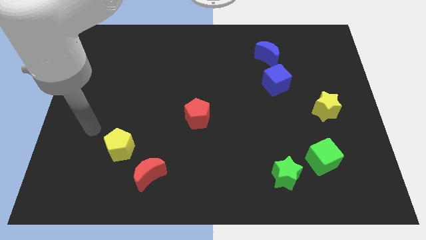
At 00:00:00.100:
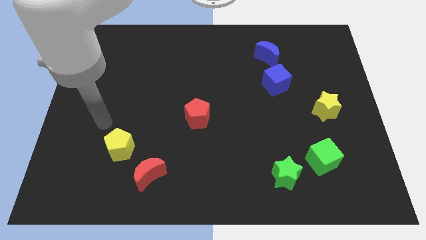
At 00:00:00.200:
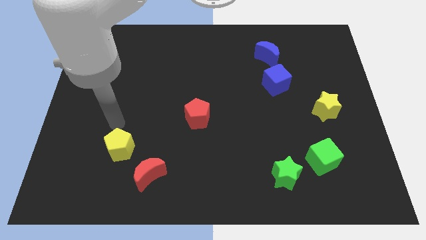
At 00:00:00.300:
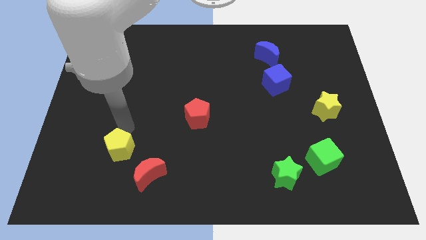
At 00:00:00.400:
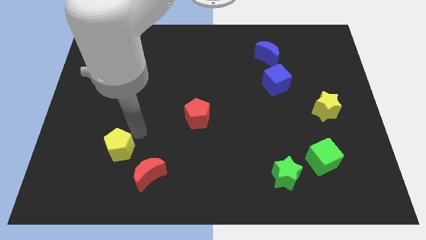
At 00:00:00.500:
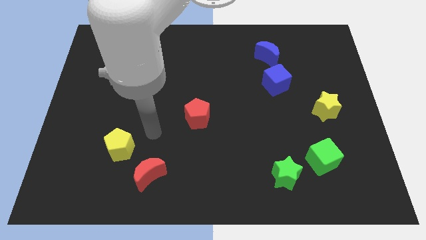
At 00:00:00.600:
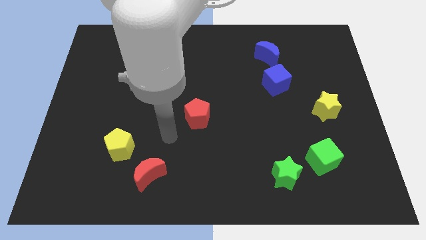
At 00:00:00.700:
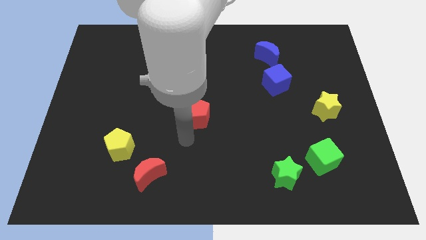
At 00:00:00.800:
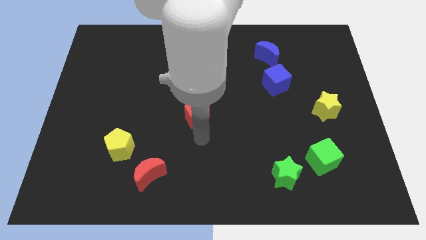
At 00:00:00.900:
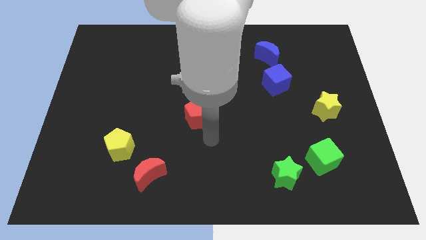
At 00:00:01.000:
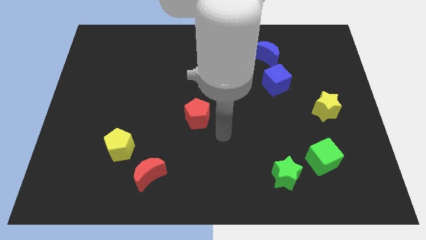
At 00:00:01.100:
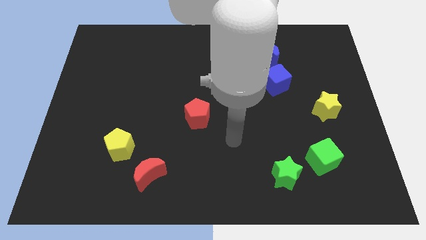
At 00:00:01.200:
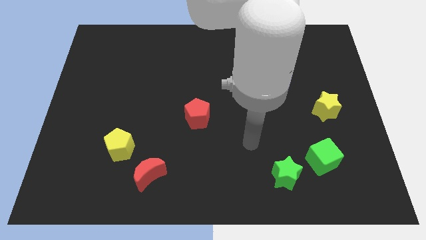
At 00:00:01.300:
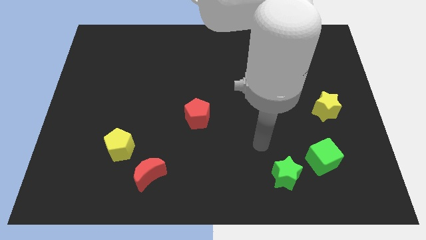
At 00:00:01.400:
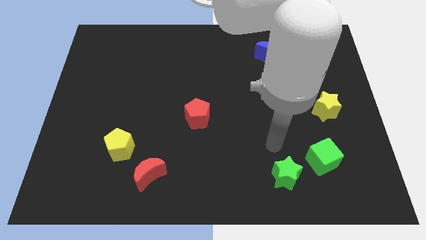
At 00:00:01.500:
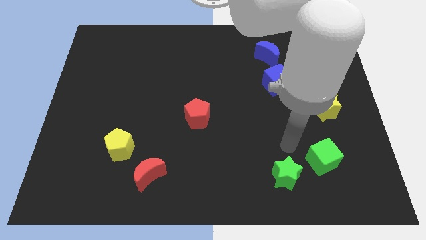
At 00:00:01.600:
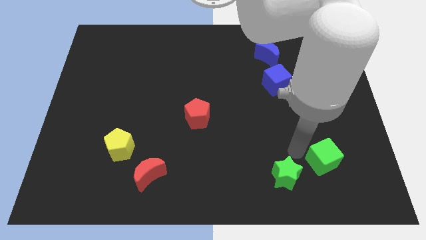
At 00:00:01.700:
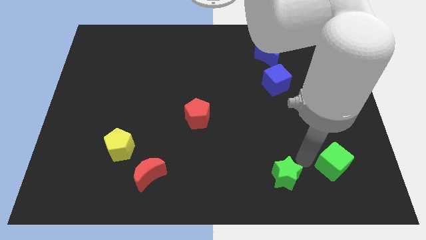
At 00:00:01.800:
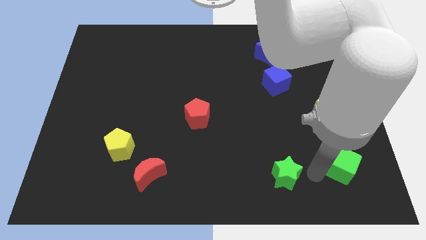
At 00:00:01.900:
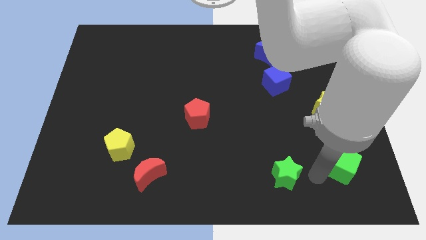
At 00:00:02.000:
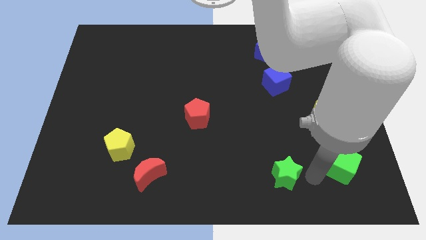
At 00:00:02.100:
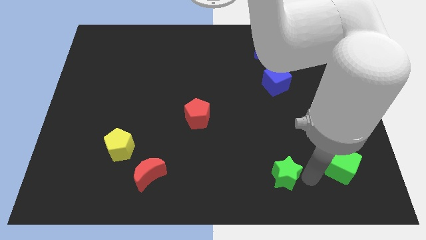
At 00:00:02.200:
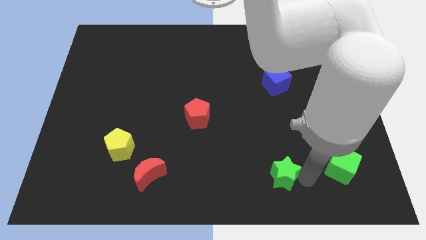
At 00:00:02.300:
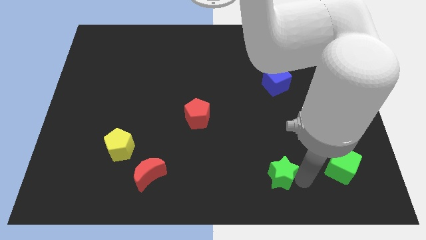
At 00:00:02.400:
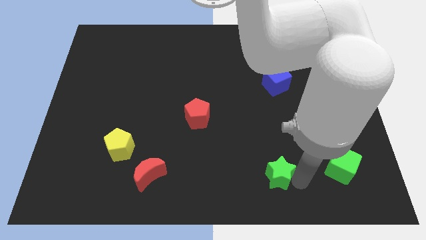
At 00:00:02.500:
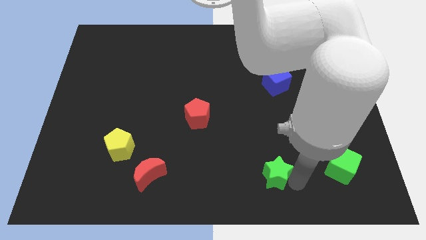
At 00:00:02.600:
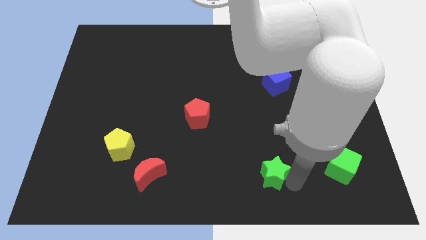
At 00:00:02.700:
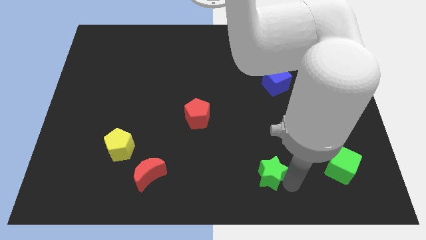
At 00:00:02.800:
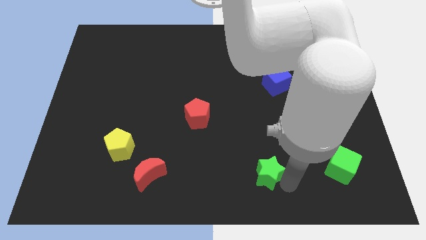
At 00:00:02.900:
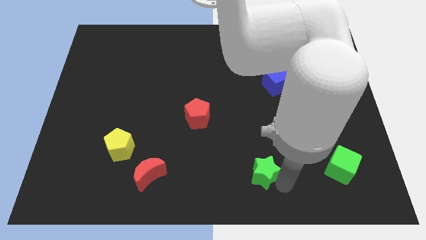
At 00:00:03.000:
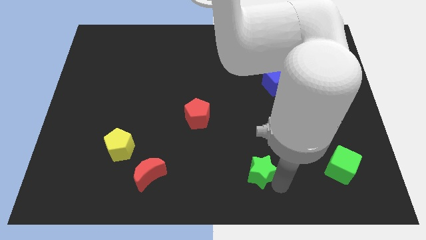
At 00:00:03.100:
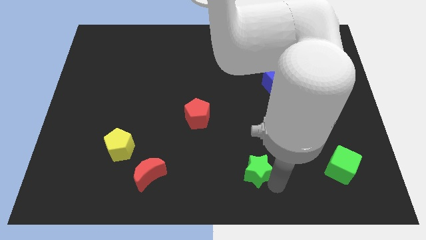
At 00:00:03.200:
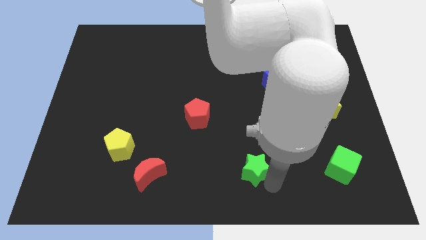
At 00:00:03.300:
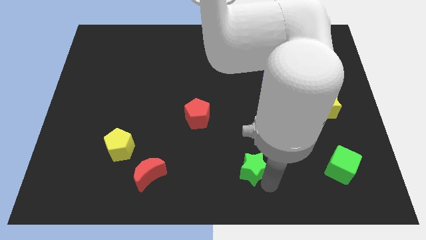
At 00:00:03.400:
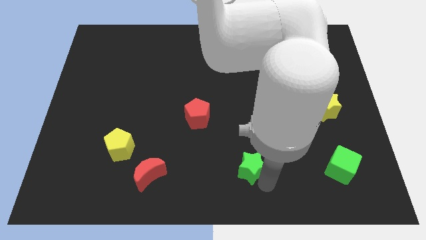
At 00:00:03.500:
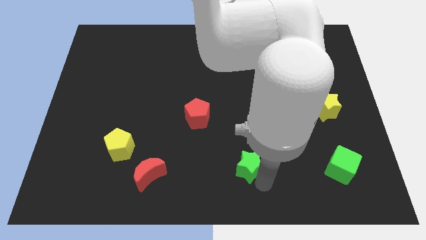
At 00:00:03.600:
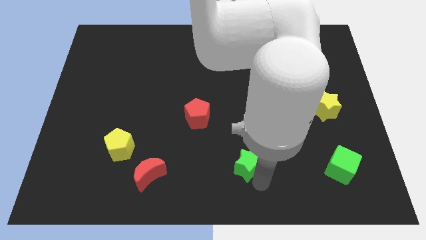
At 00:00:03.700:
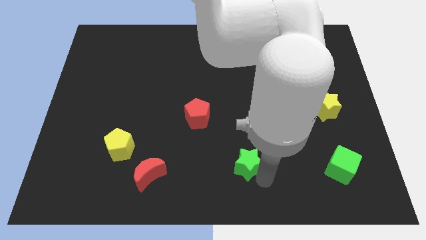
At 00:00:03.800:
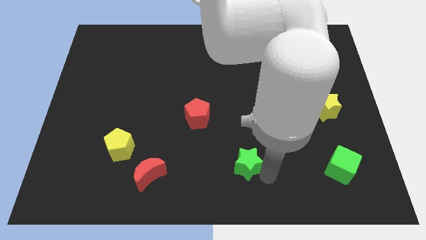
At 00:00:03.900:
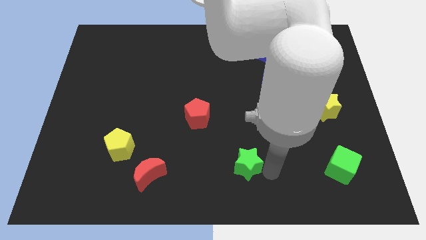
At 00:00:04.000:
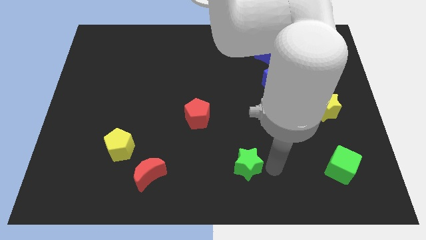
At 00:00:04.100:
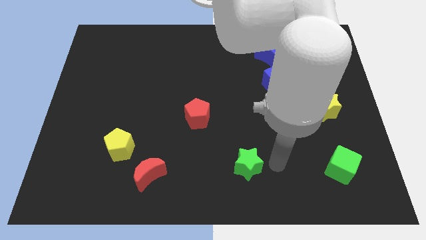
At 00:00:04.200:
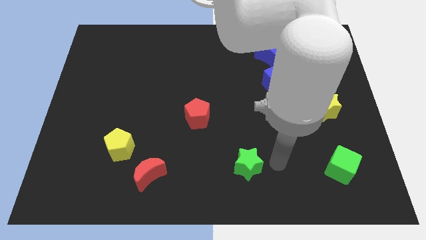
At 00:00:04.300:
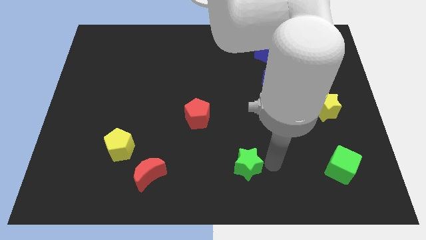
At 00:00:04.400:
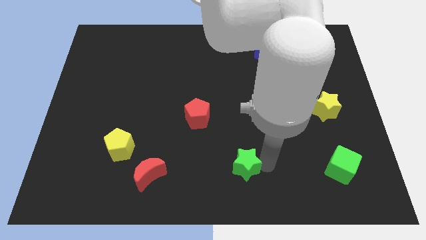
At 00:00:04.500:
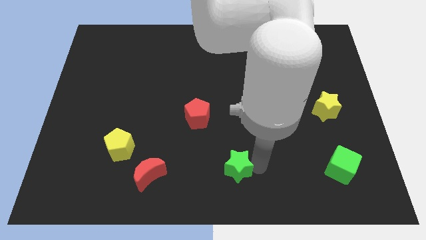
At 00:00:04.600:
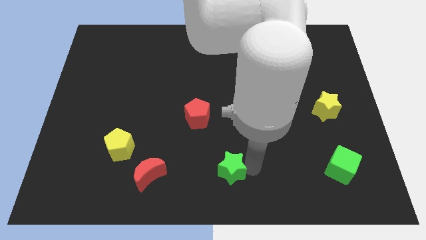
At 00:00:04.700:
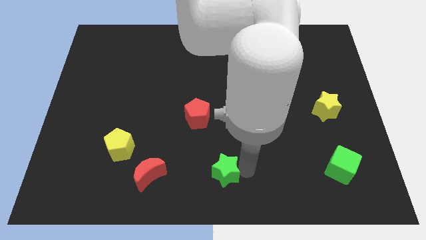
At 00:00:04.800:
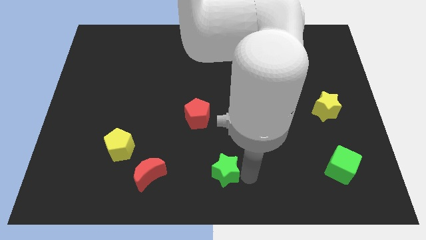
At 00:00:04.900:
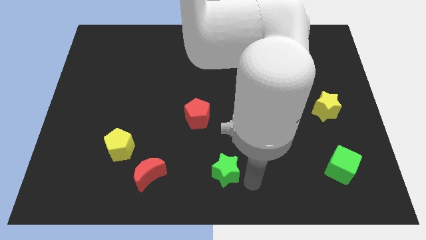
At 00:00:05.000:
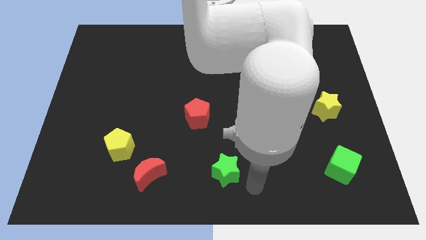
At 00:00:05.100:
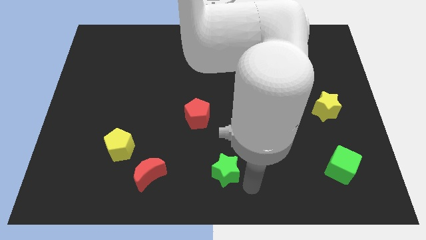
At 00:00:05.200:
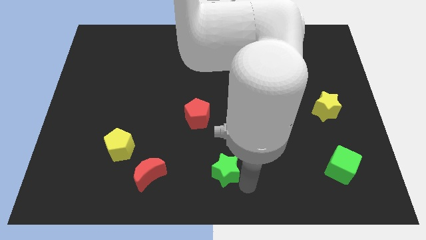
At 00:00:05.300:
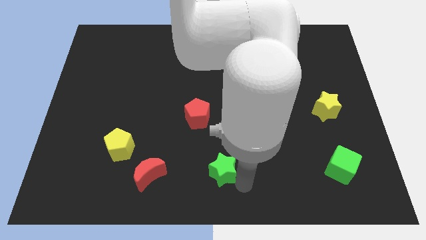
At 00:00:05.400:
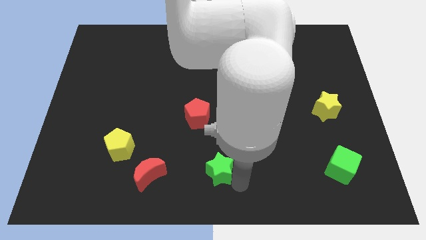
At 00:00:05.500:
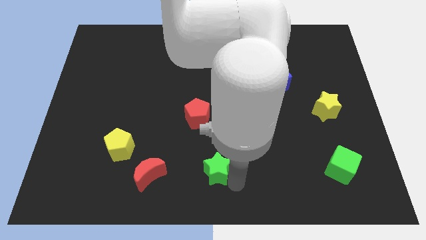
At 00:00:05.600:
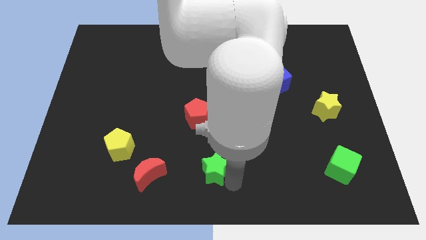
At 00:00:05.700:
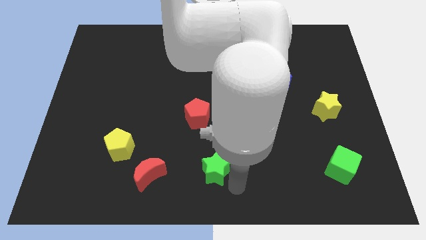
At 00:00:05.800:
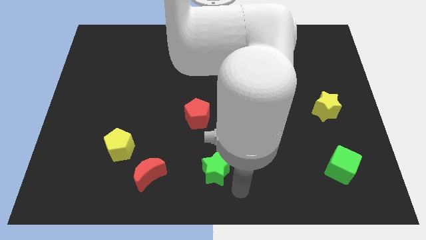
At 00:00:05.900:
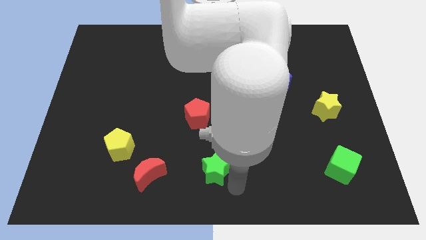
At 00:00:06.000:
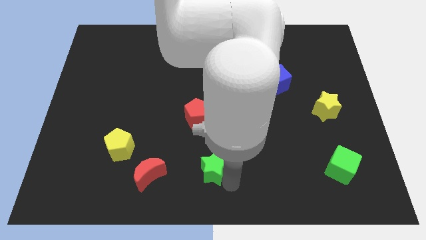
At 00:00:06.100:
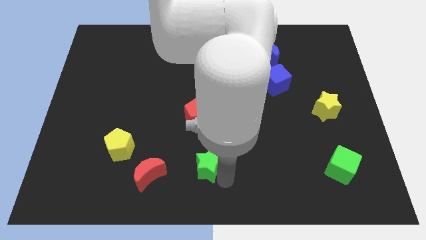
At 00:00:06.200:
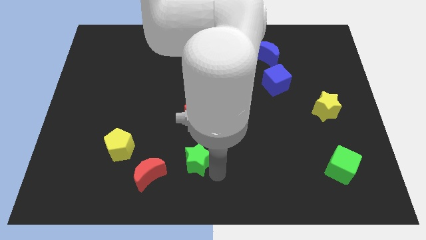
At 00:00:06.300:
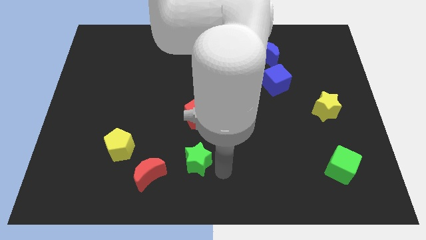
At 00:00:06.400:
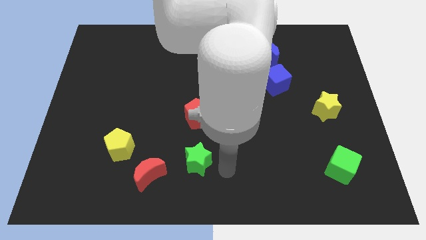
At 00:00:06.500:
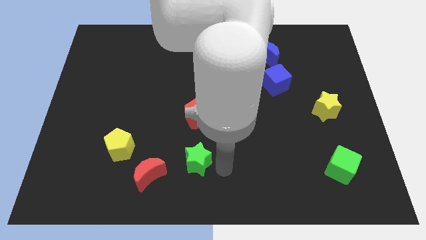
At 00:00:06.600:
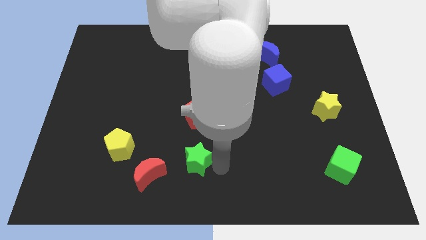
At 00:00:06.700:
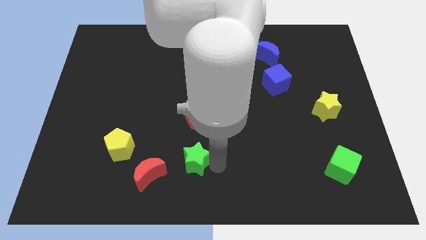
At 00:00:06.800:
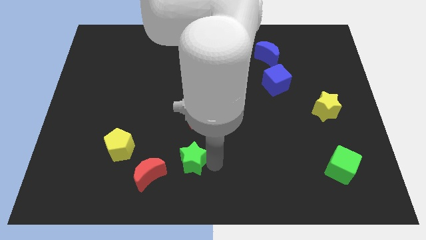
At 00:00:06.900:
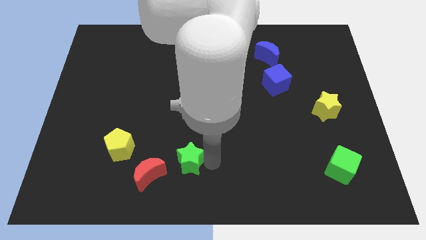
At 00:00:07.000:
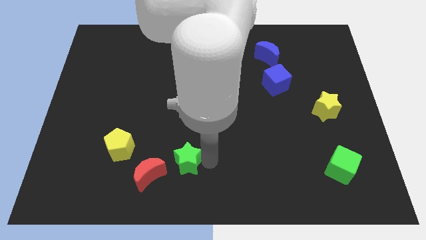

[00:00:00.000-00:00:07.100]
slide the green star left

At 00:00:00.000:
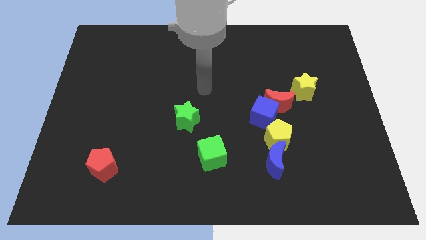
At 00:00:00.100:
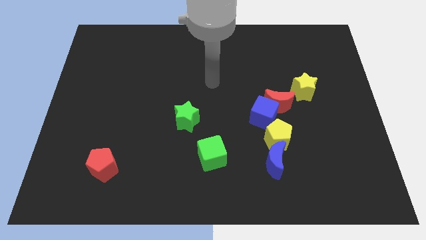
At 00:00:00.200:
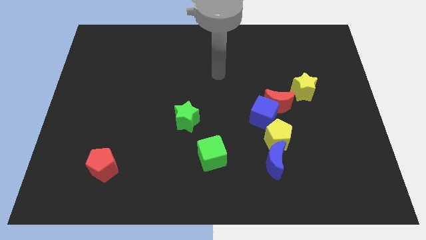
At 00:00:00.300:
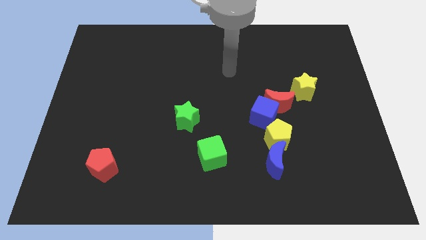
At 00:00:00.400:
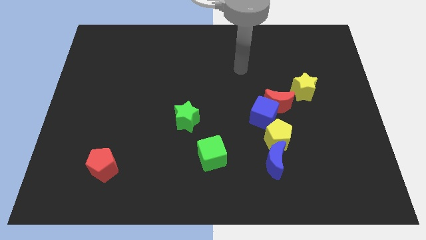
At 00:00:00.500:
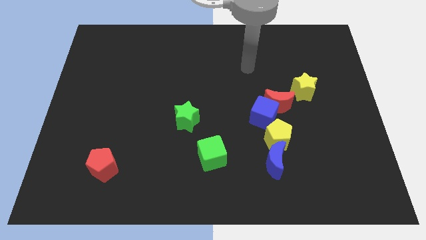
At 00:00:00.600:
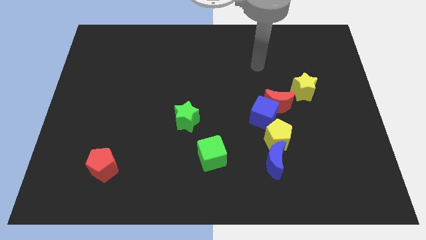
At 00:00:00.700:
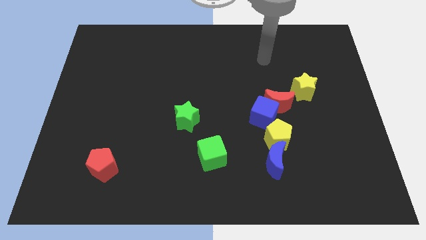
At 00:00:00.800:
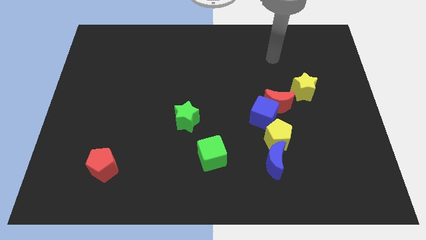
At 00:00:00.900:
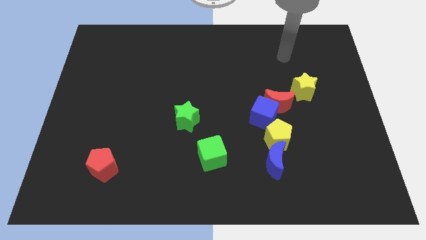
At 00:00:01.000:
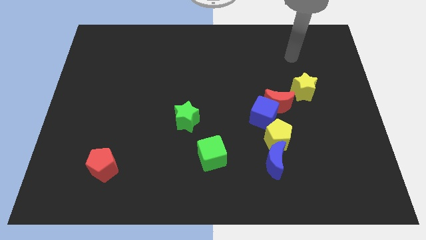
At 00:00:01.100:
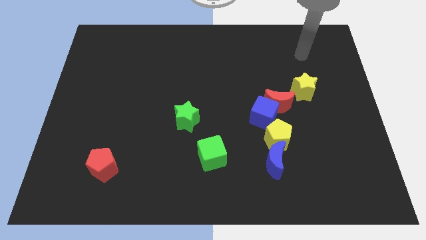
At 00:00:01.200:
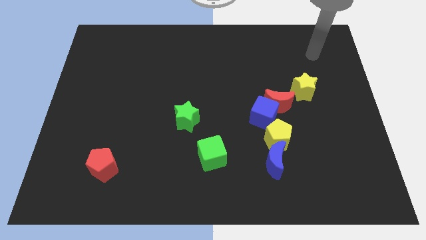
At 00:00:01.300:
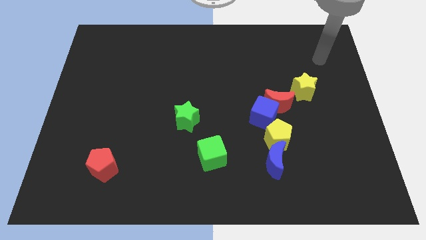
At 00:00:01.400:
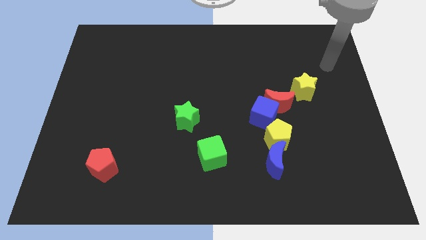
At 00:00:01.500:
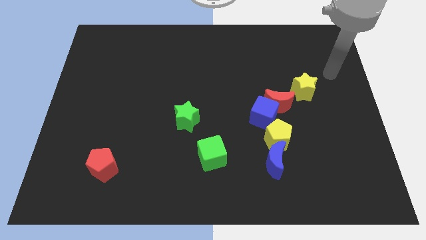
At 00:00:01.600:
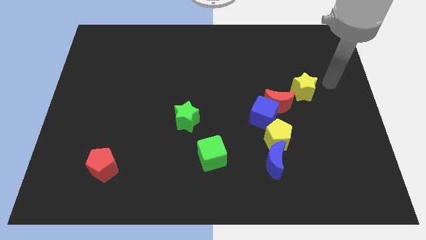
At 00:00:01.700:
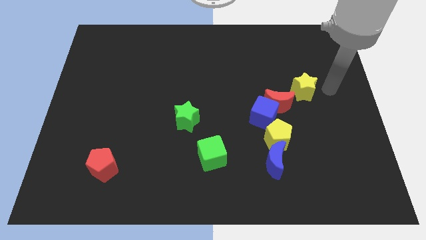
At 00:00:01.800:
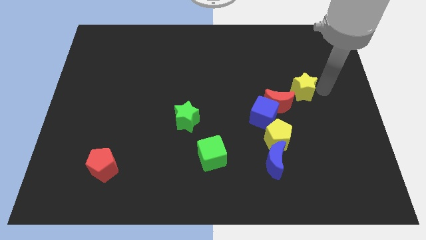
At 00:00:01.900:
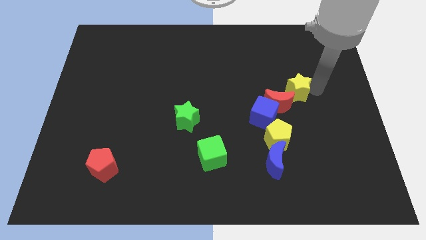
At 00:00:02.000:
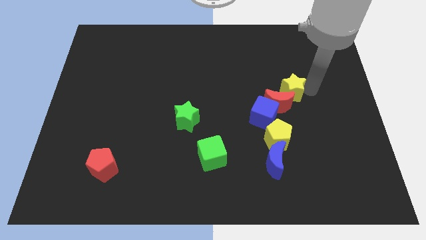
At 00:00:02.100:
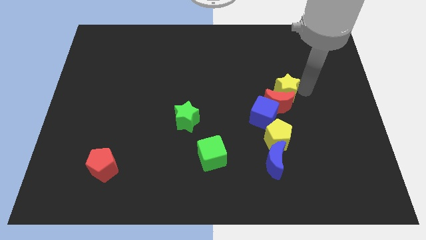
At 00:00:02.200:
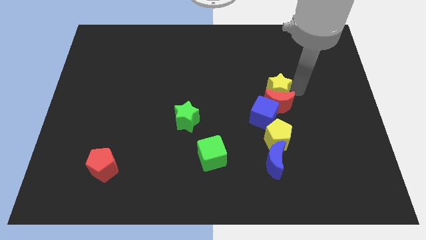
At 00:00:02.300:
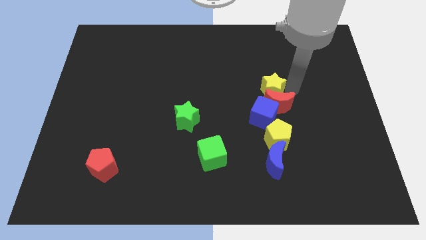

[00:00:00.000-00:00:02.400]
slightly push the yellow star to the left
